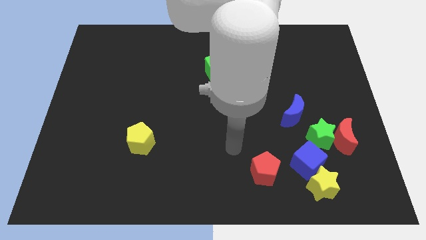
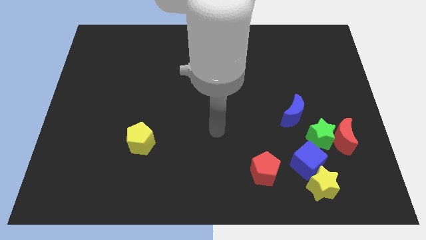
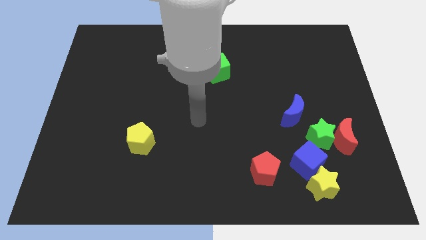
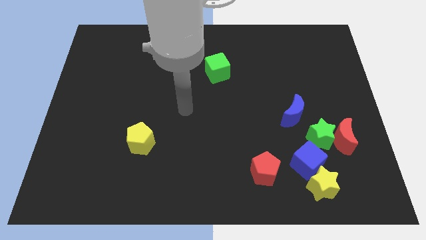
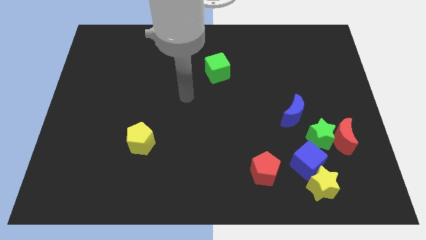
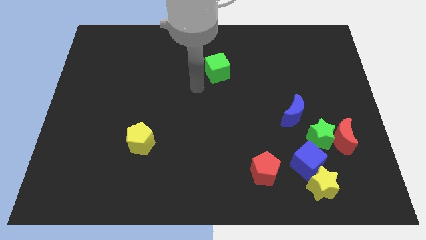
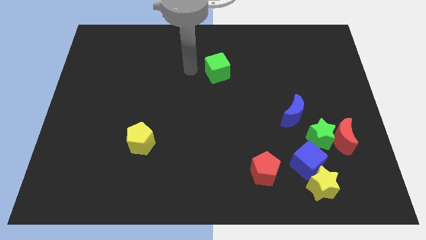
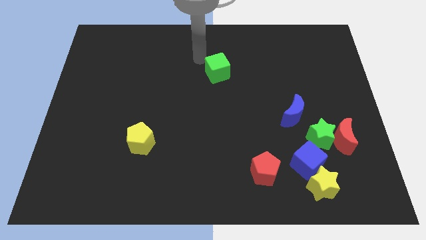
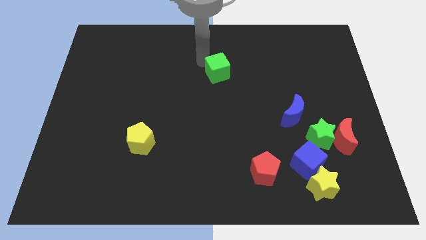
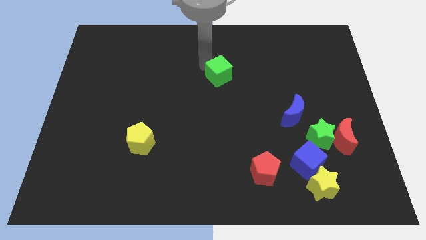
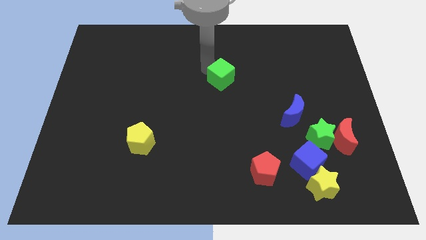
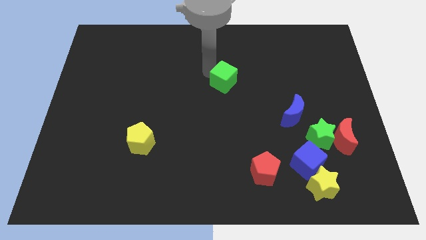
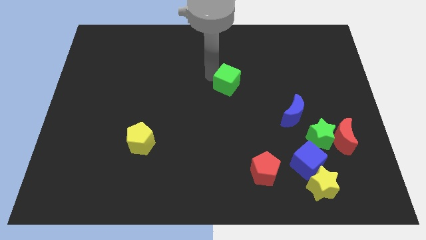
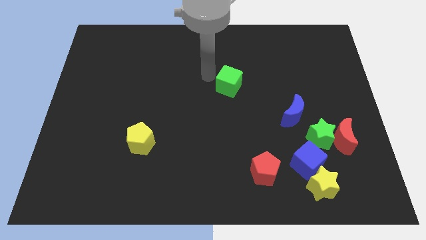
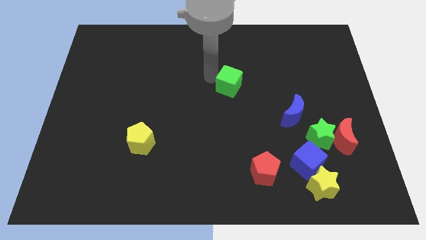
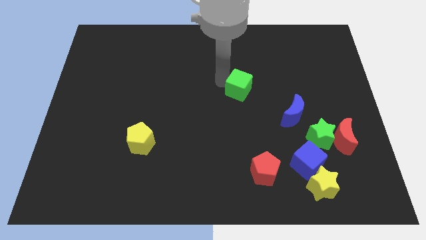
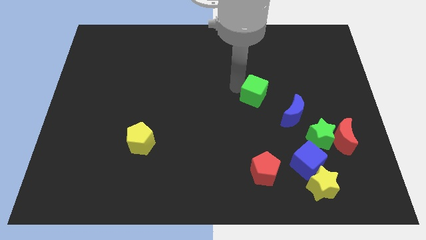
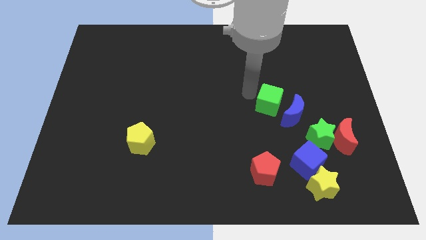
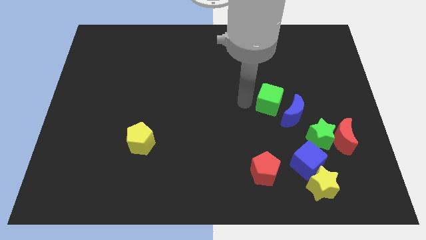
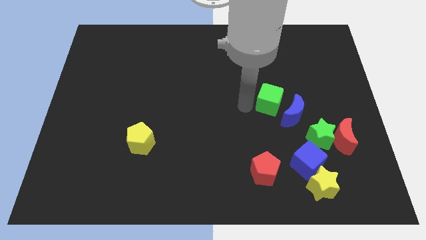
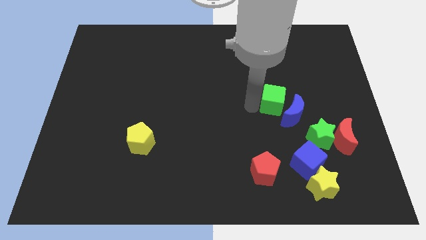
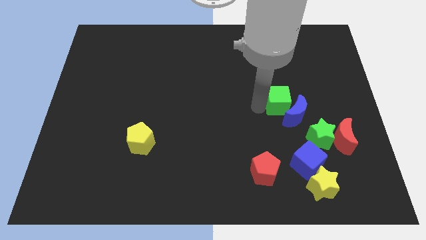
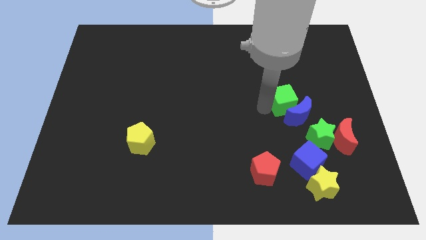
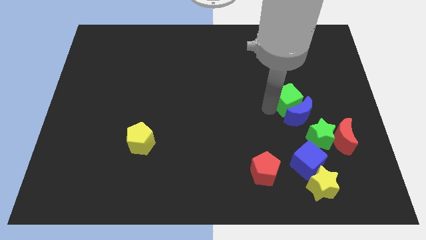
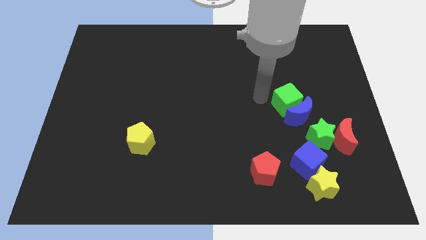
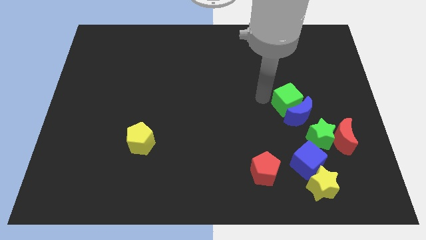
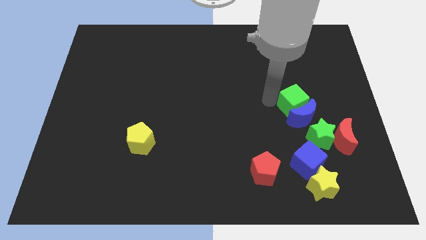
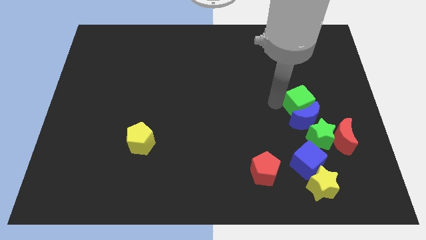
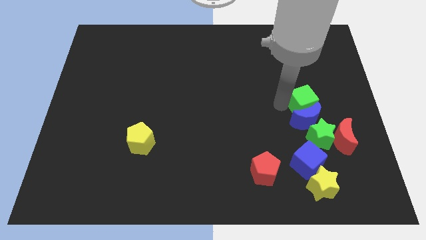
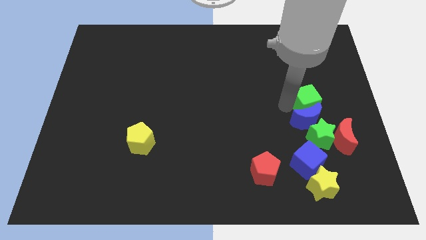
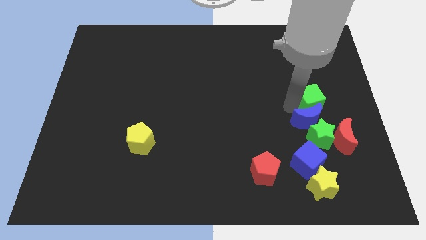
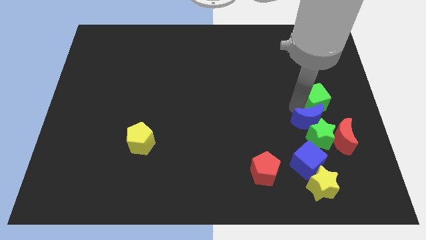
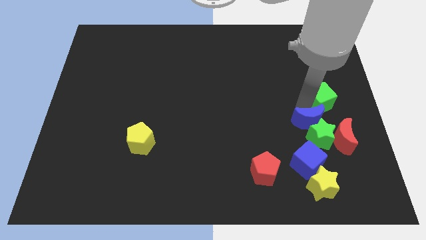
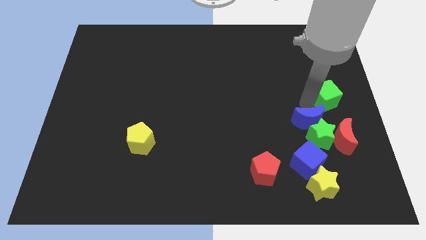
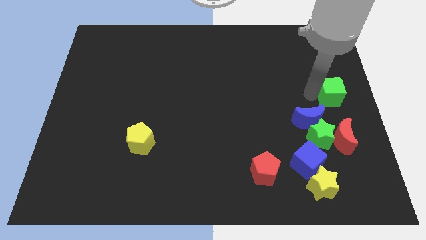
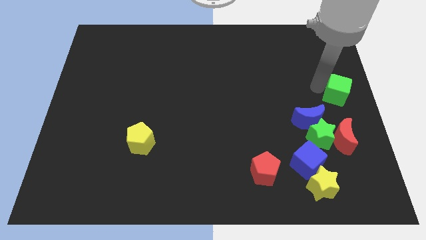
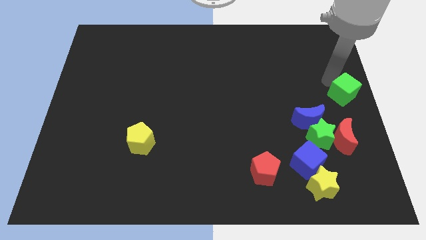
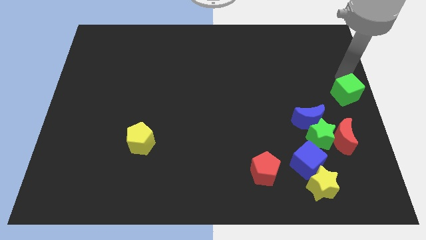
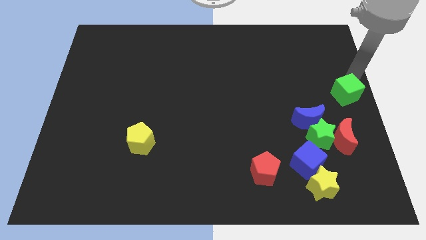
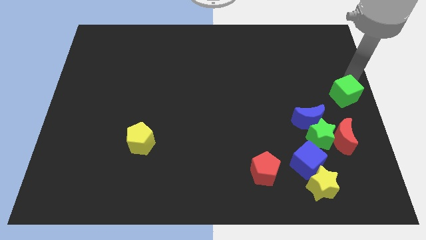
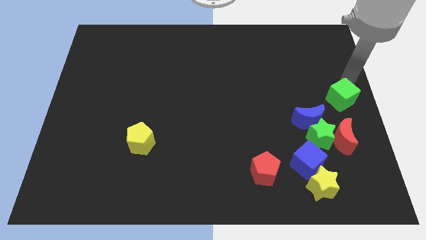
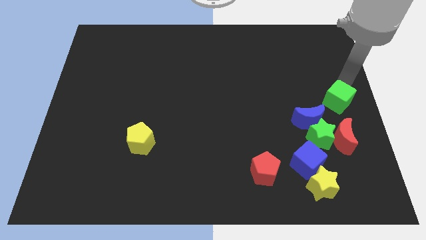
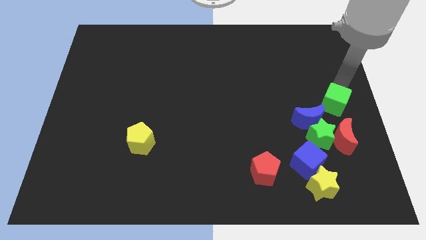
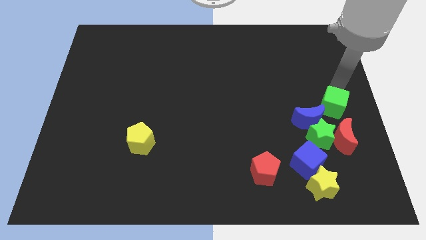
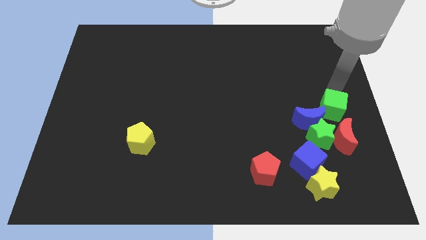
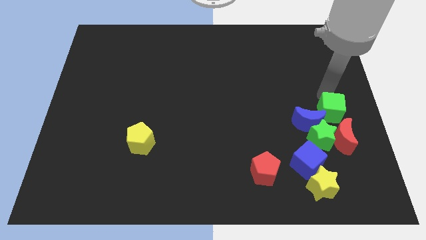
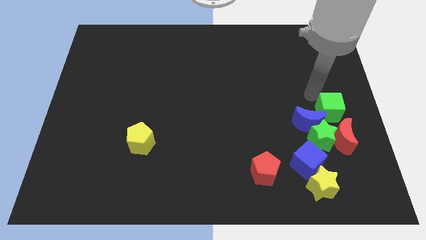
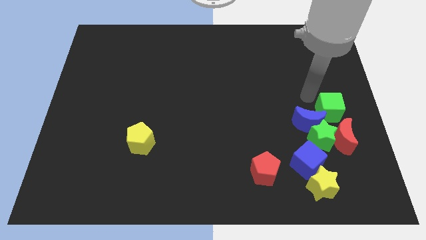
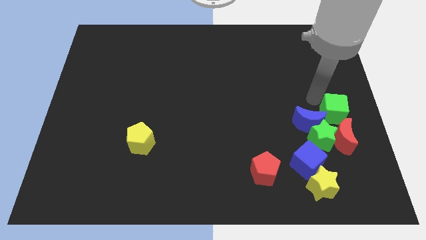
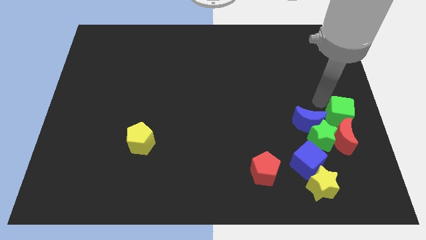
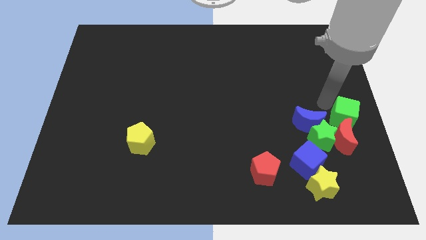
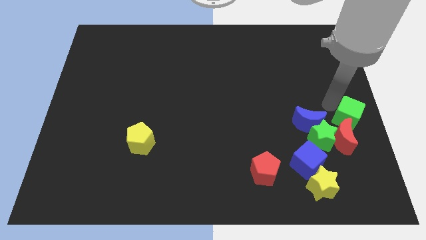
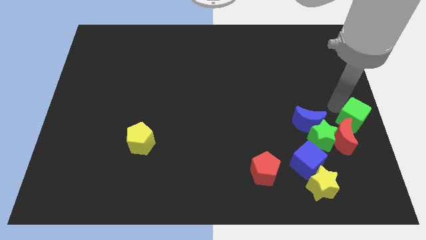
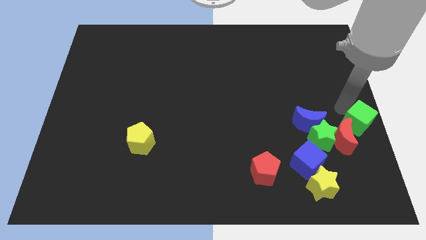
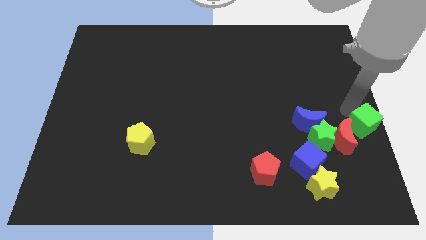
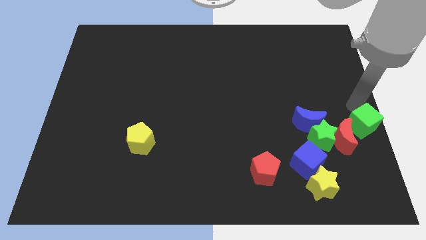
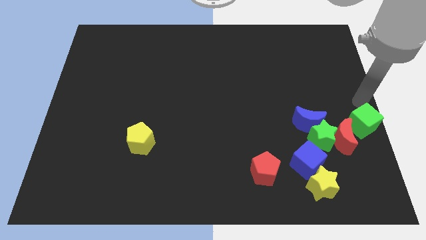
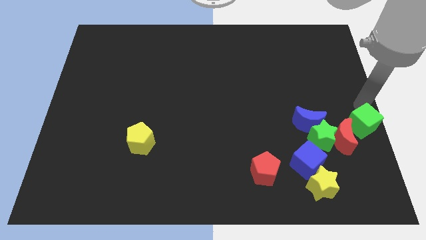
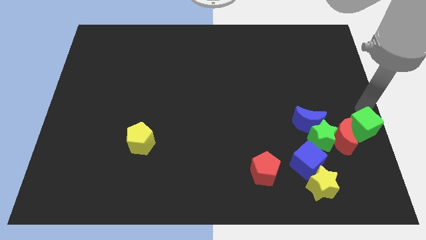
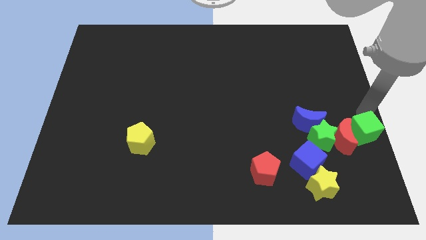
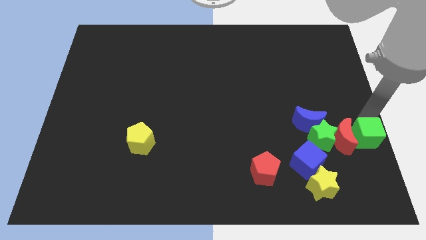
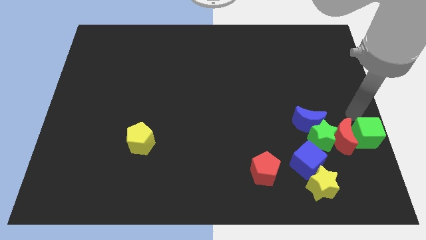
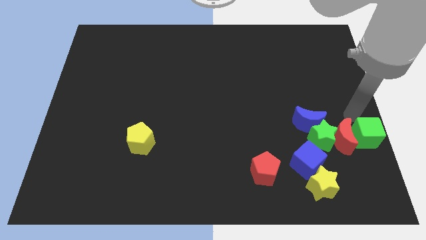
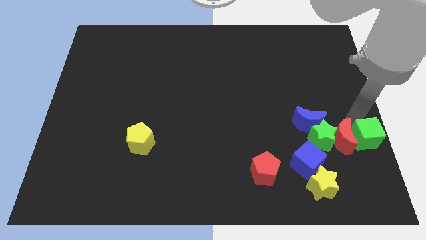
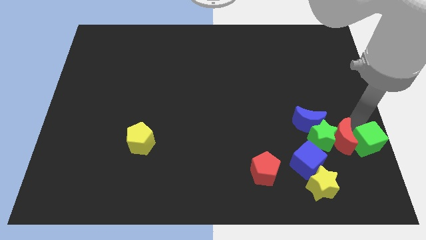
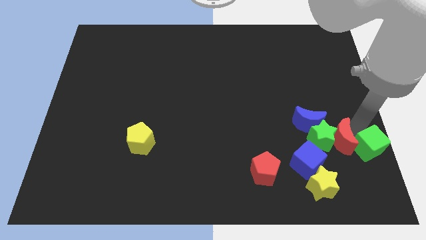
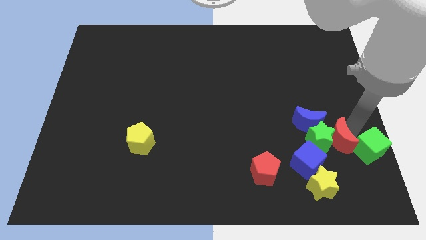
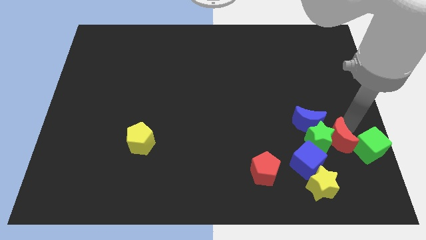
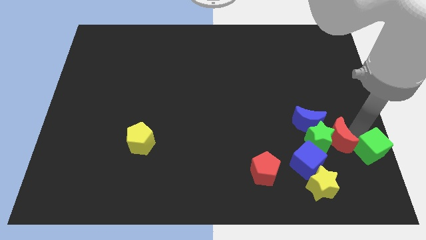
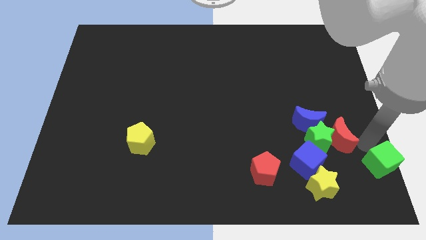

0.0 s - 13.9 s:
push the green cube to the bottom right

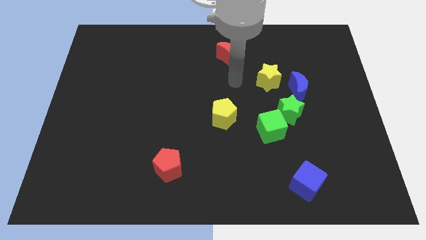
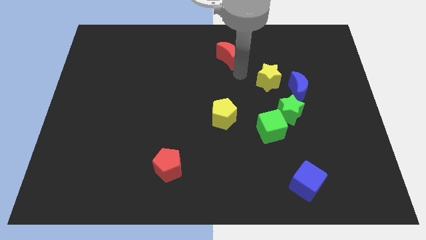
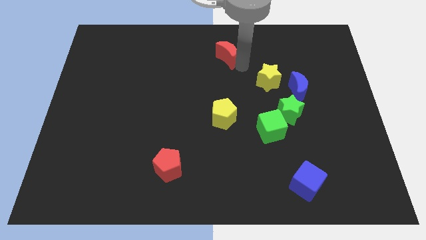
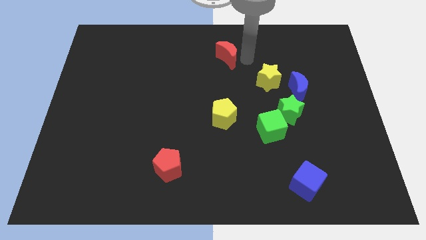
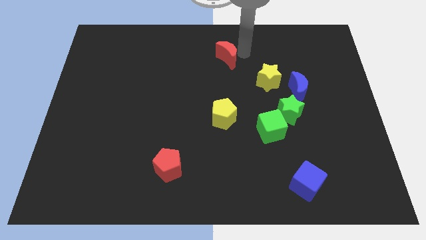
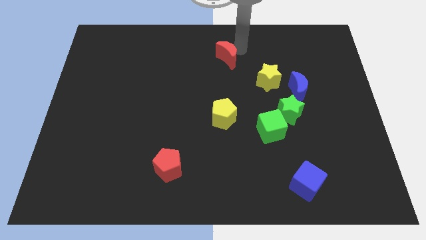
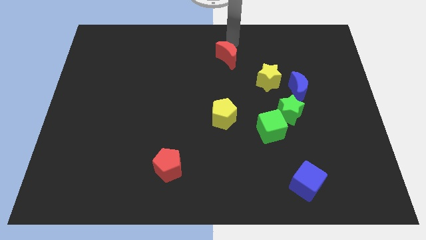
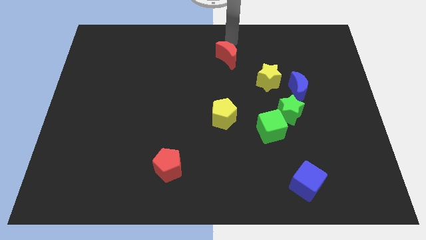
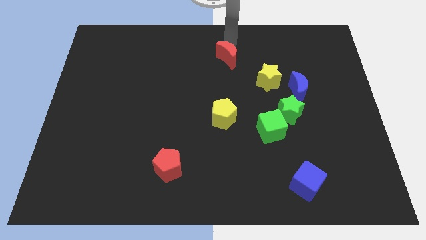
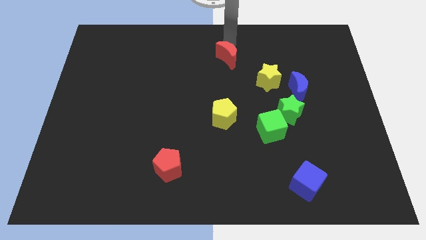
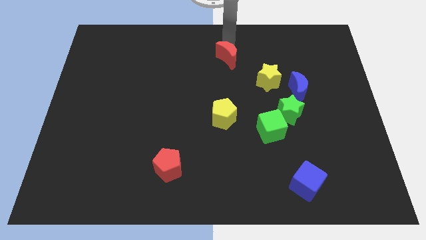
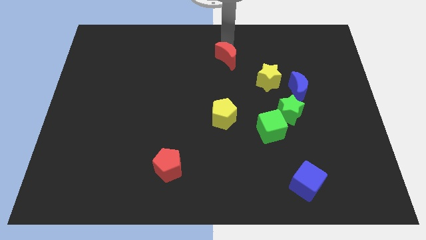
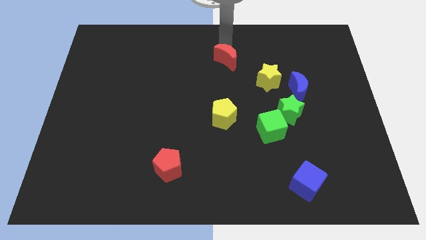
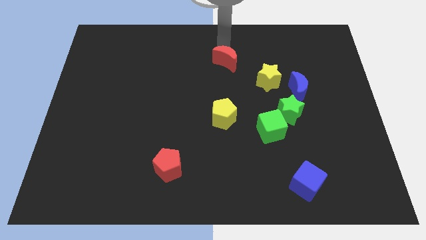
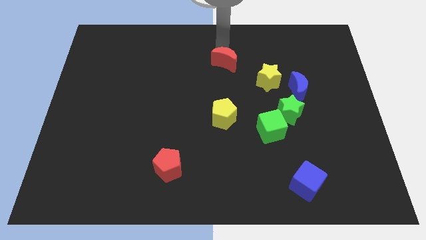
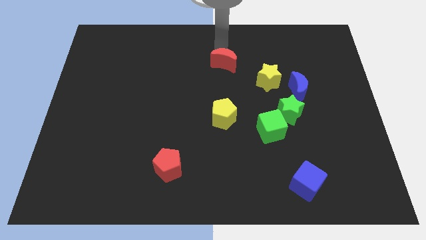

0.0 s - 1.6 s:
push the red moon to the middle of the board
